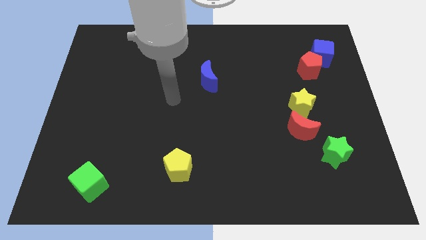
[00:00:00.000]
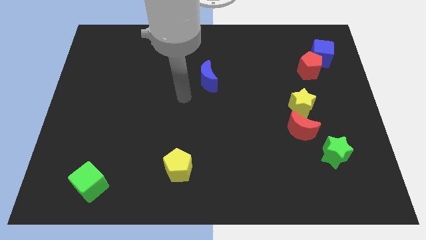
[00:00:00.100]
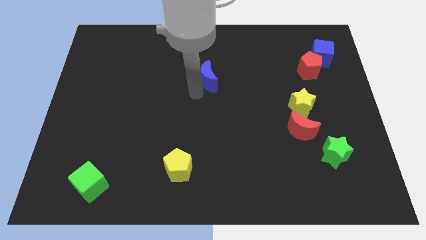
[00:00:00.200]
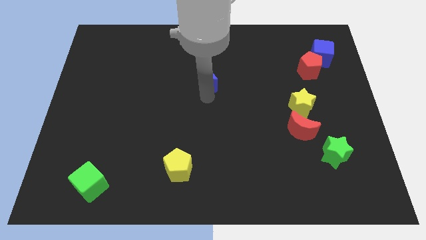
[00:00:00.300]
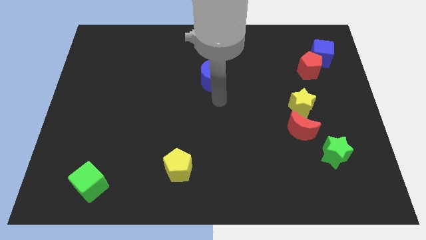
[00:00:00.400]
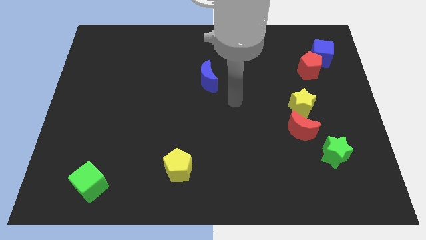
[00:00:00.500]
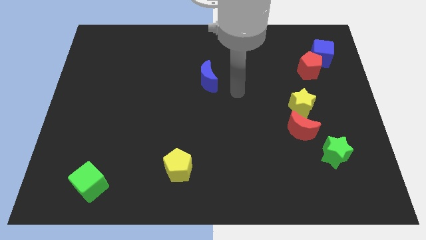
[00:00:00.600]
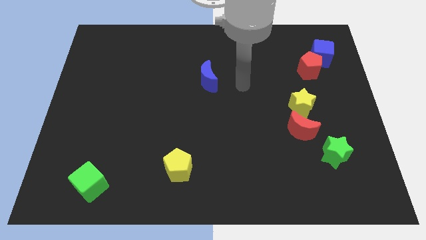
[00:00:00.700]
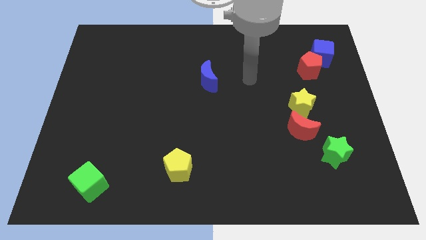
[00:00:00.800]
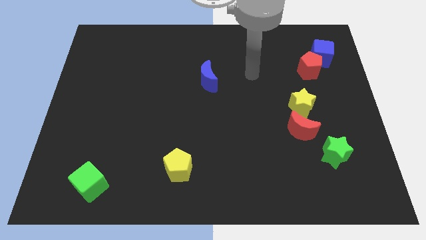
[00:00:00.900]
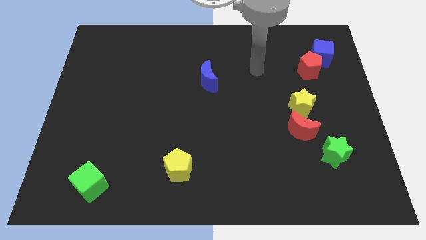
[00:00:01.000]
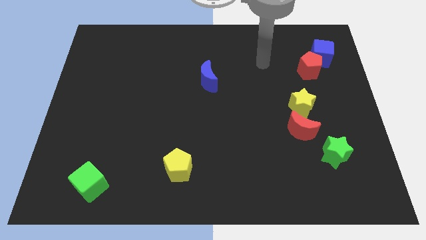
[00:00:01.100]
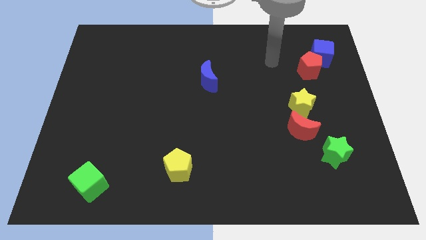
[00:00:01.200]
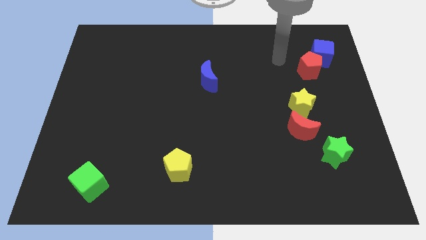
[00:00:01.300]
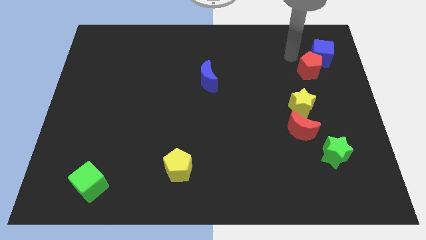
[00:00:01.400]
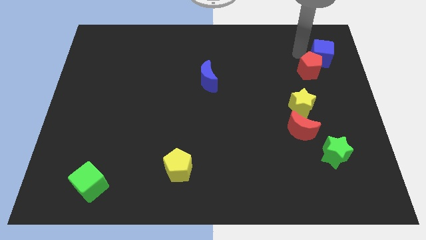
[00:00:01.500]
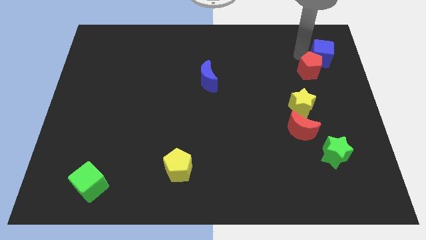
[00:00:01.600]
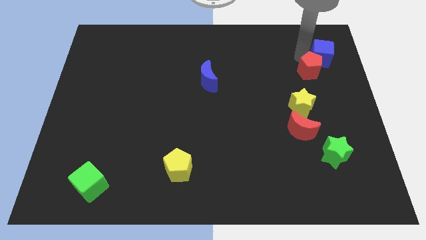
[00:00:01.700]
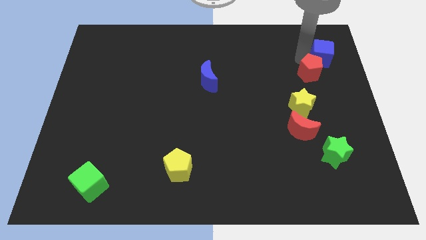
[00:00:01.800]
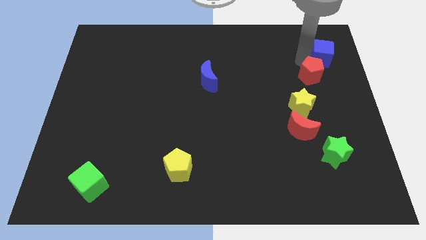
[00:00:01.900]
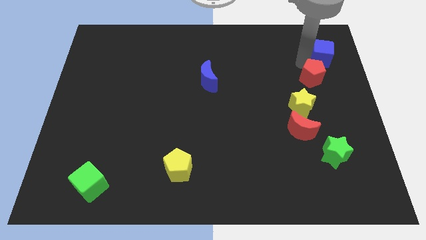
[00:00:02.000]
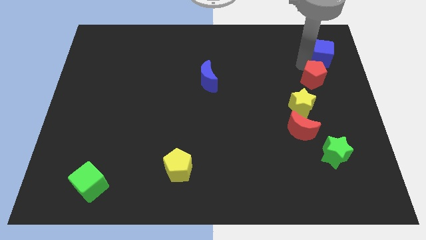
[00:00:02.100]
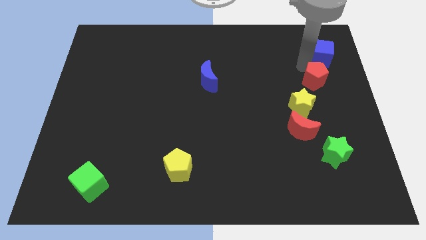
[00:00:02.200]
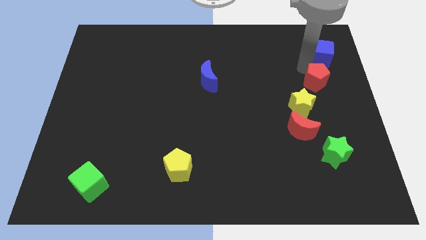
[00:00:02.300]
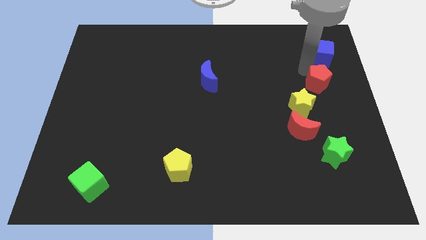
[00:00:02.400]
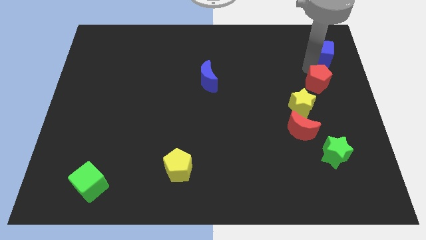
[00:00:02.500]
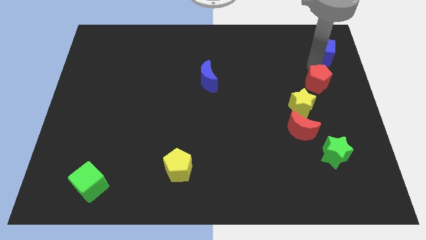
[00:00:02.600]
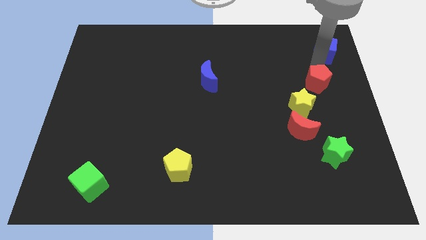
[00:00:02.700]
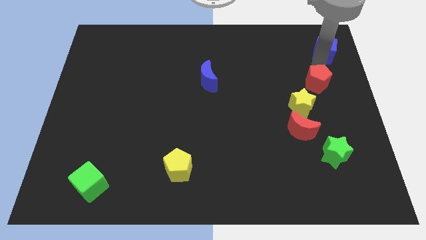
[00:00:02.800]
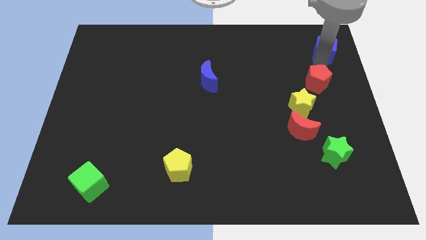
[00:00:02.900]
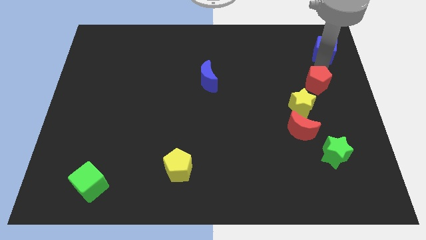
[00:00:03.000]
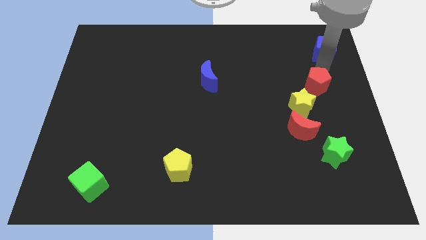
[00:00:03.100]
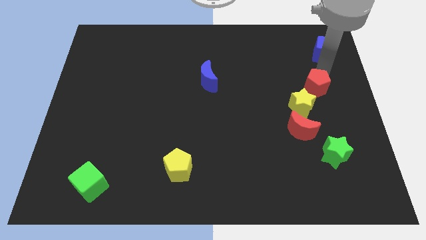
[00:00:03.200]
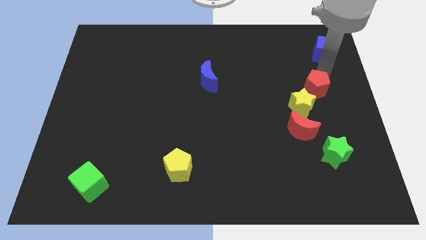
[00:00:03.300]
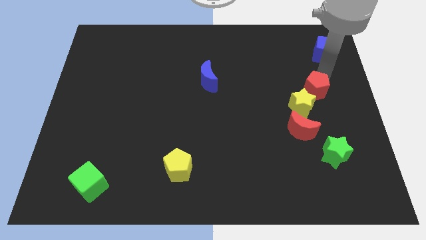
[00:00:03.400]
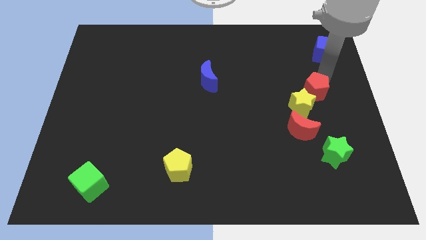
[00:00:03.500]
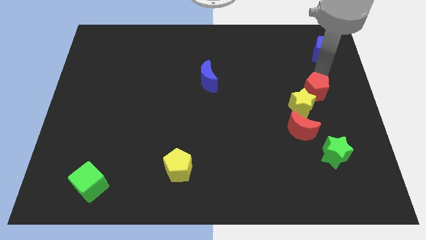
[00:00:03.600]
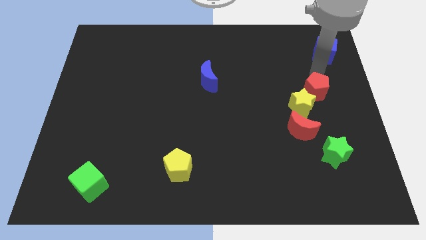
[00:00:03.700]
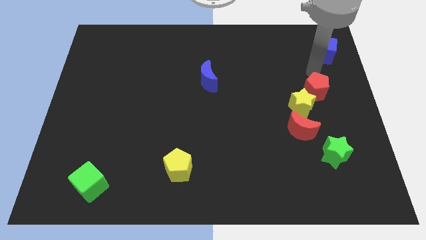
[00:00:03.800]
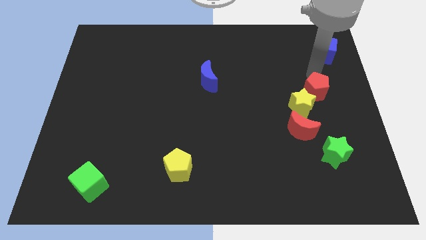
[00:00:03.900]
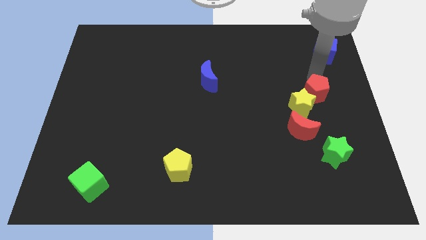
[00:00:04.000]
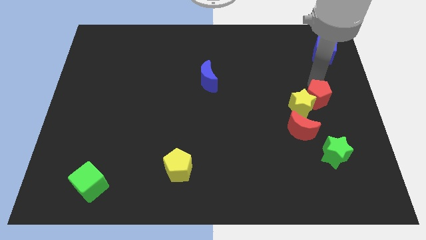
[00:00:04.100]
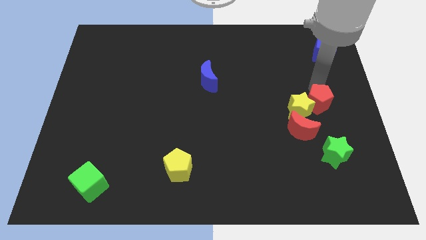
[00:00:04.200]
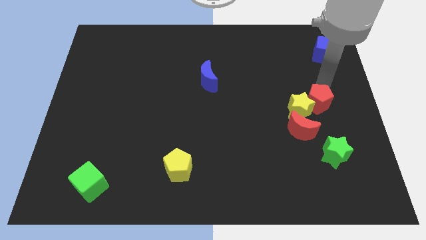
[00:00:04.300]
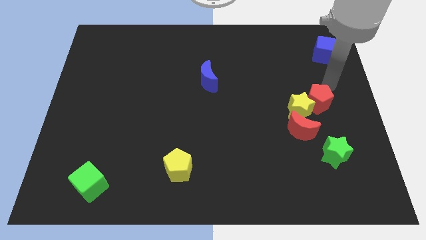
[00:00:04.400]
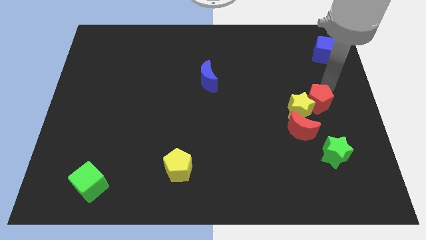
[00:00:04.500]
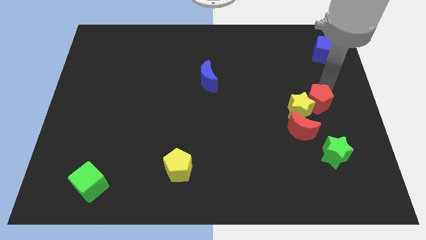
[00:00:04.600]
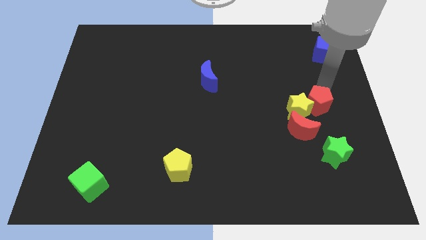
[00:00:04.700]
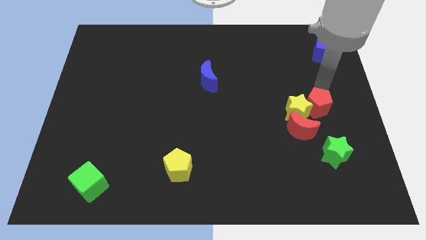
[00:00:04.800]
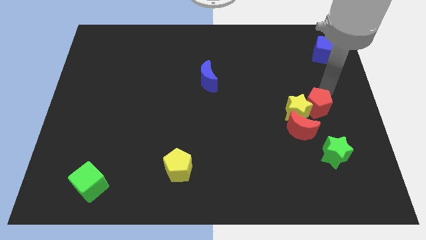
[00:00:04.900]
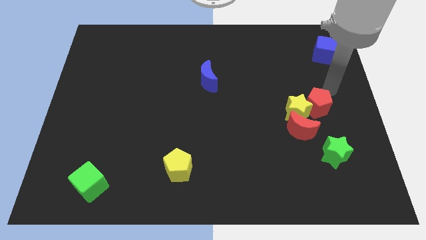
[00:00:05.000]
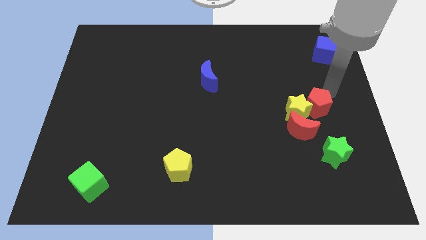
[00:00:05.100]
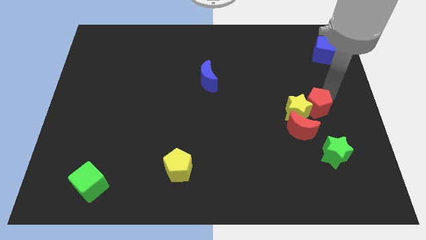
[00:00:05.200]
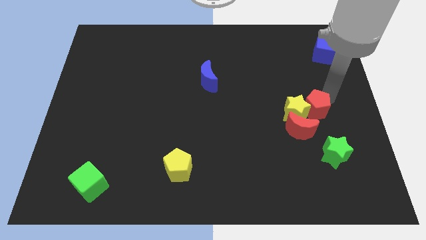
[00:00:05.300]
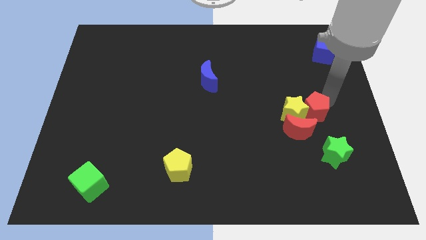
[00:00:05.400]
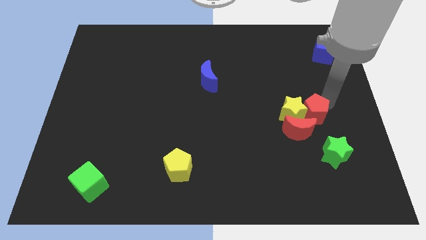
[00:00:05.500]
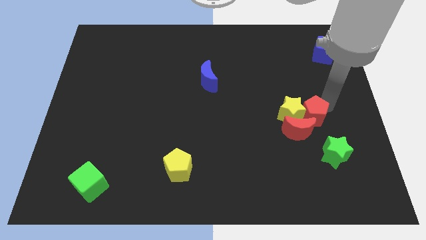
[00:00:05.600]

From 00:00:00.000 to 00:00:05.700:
move the red pentagon to the red moon

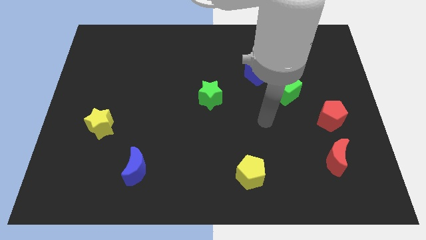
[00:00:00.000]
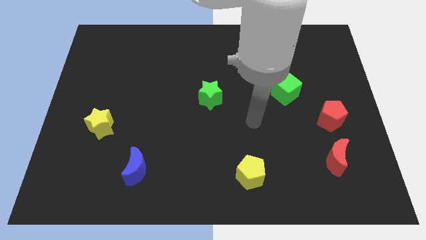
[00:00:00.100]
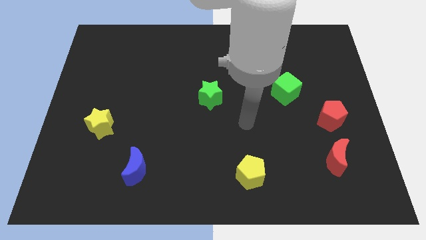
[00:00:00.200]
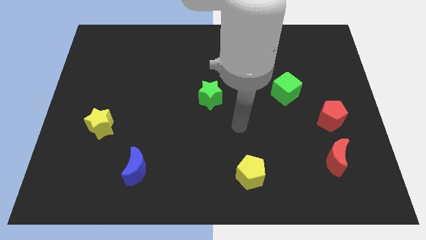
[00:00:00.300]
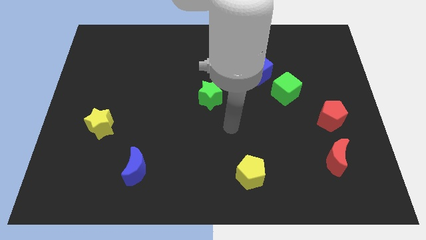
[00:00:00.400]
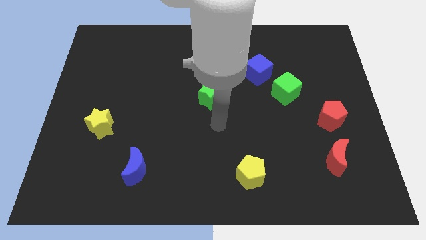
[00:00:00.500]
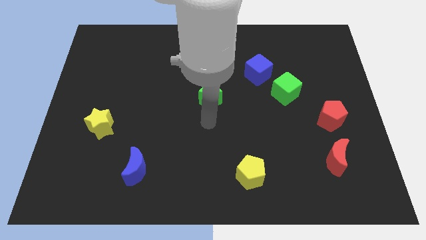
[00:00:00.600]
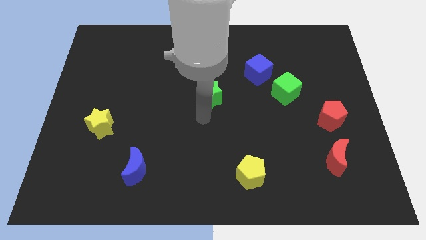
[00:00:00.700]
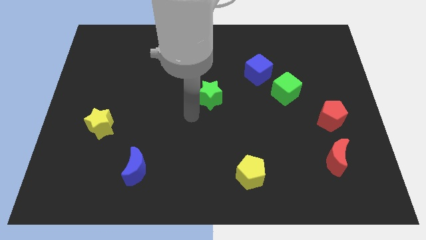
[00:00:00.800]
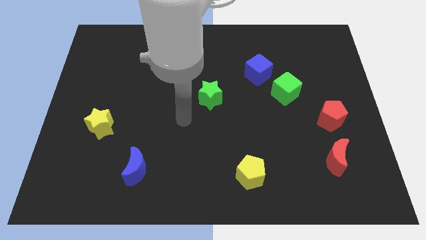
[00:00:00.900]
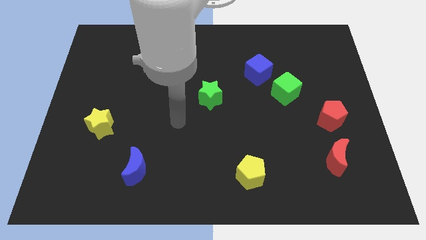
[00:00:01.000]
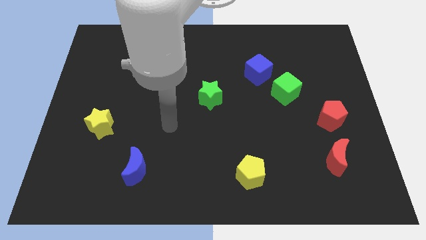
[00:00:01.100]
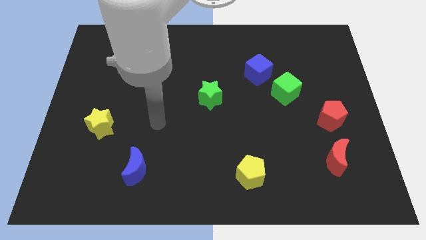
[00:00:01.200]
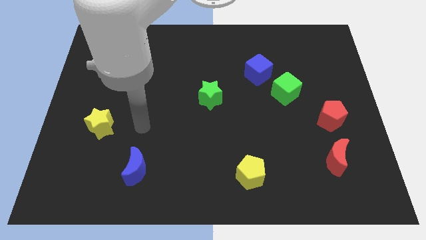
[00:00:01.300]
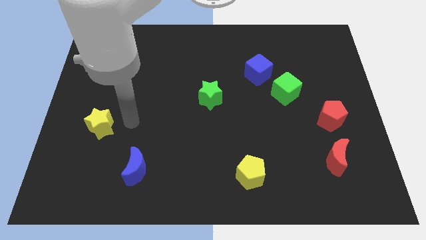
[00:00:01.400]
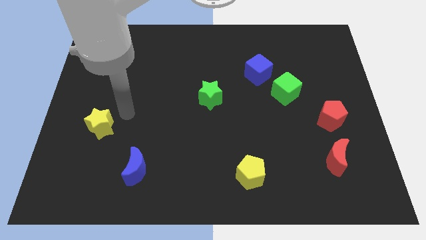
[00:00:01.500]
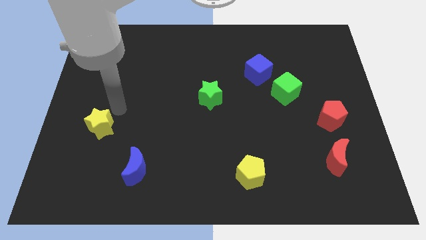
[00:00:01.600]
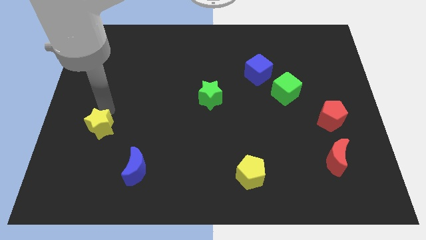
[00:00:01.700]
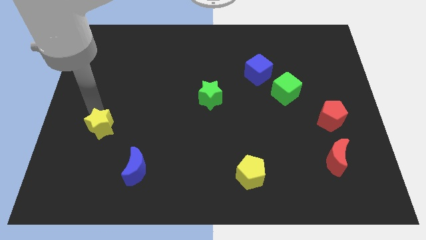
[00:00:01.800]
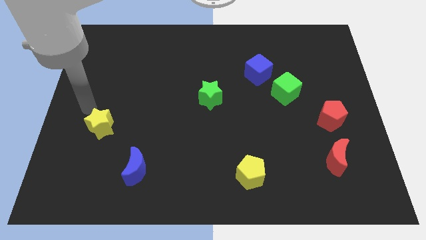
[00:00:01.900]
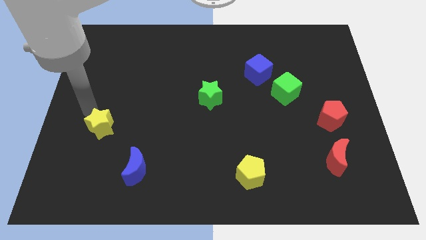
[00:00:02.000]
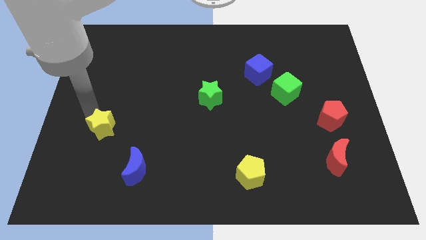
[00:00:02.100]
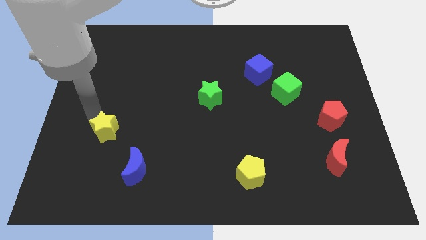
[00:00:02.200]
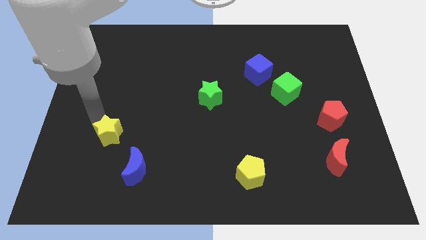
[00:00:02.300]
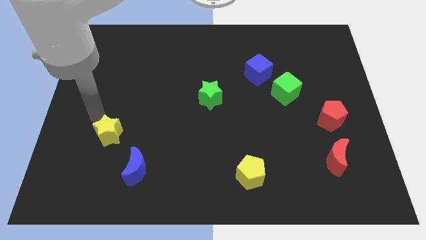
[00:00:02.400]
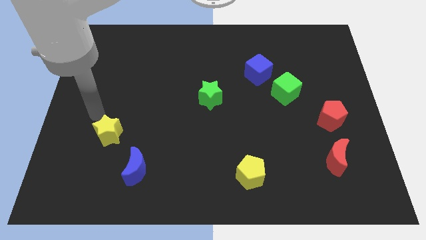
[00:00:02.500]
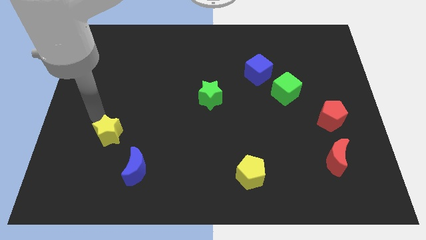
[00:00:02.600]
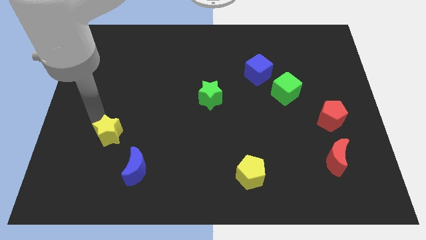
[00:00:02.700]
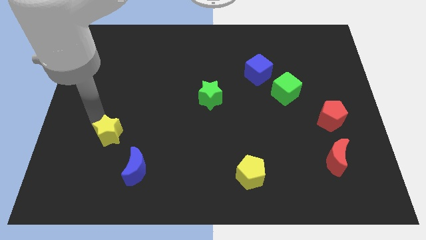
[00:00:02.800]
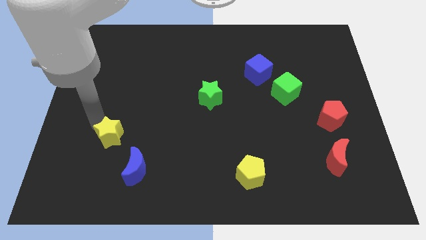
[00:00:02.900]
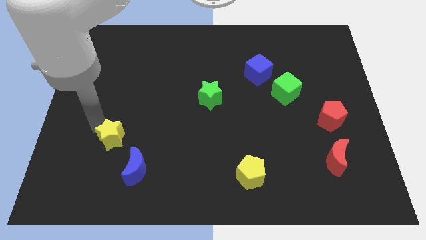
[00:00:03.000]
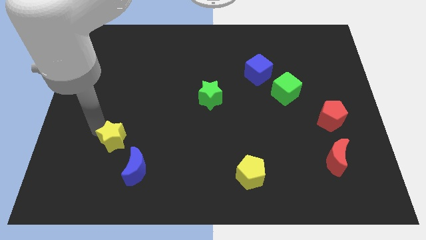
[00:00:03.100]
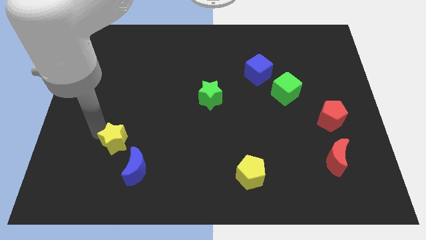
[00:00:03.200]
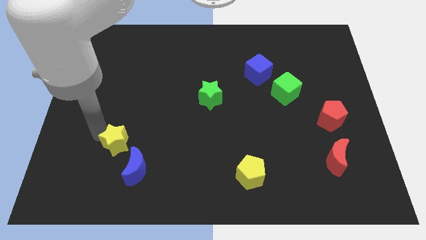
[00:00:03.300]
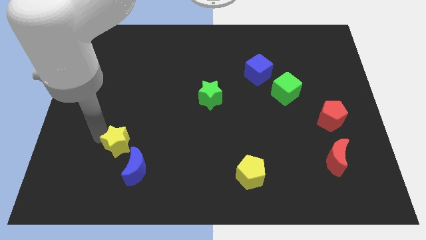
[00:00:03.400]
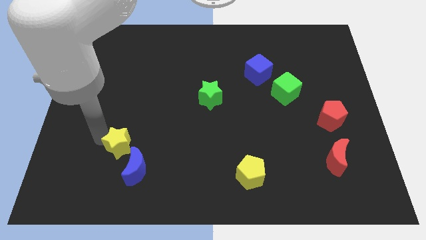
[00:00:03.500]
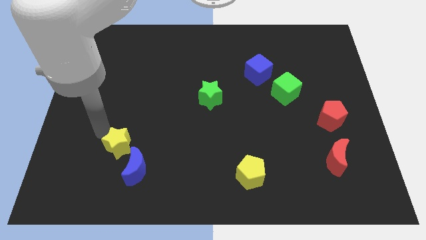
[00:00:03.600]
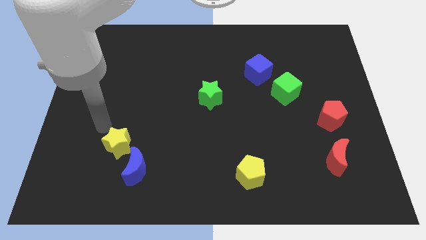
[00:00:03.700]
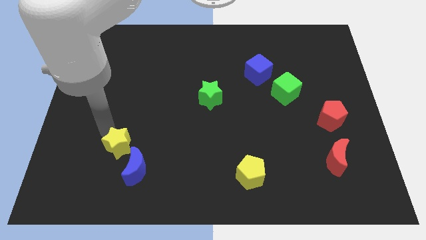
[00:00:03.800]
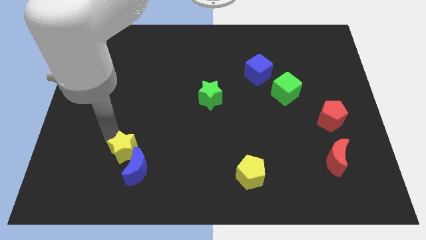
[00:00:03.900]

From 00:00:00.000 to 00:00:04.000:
push the yellow star next to the blue moon
